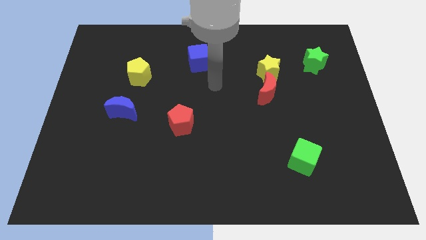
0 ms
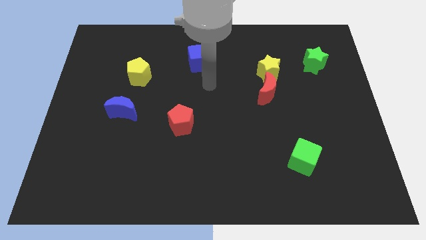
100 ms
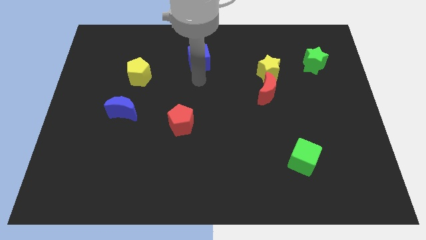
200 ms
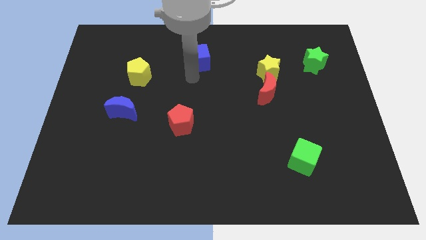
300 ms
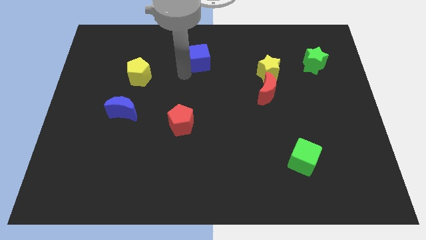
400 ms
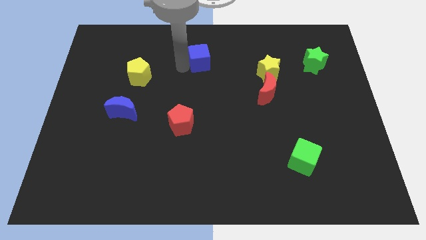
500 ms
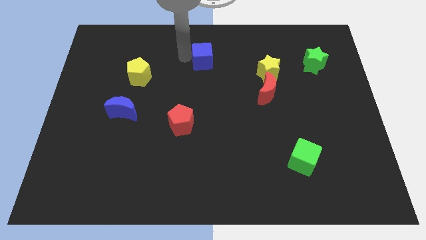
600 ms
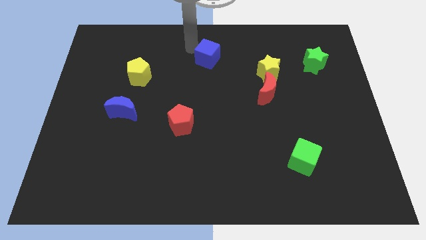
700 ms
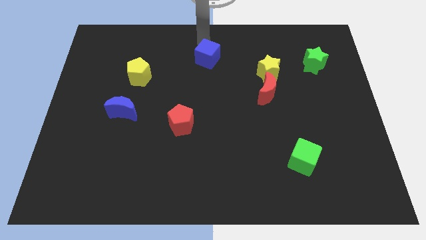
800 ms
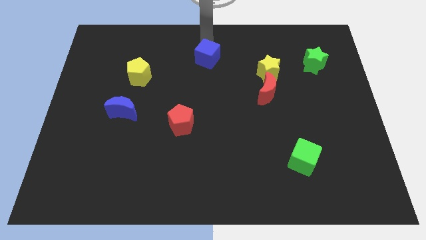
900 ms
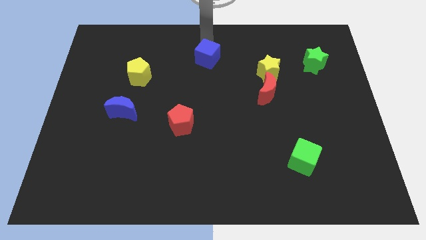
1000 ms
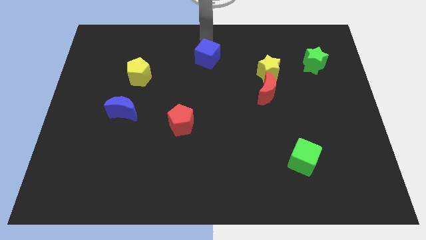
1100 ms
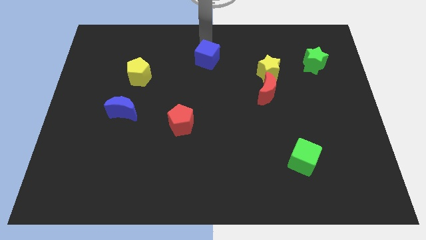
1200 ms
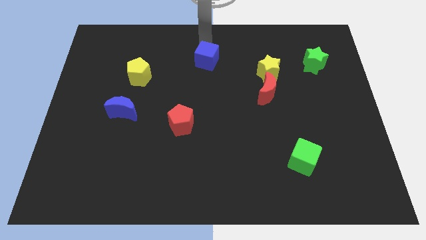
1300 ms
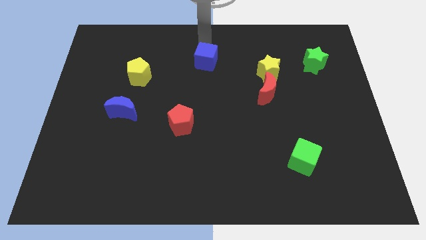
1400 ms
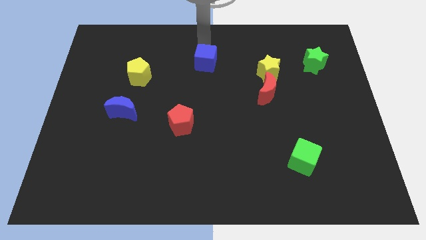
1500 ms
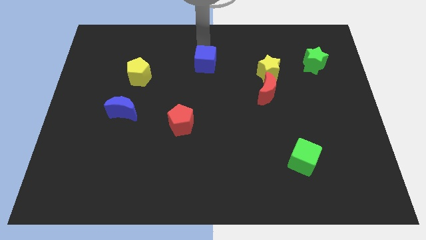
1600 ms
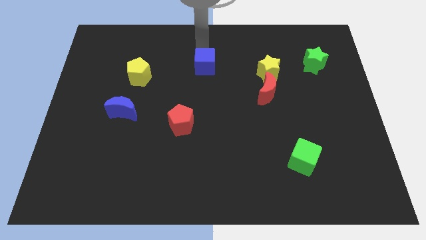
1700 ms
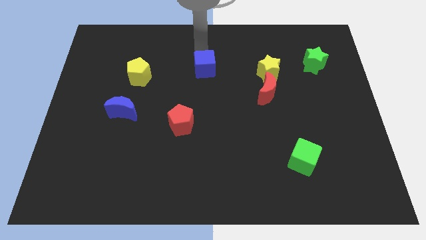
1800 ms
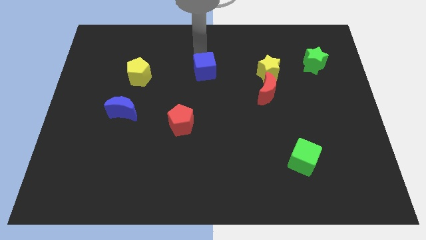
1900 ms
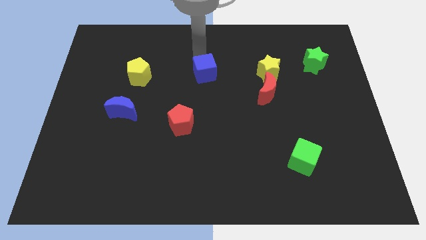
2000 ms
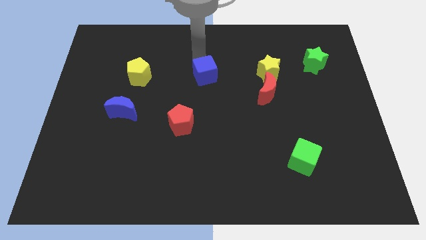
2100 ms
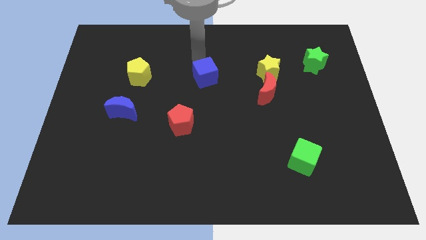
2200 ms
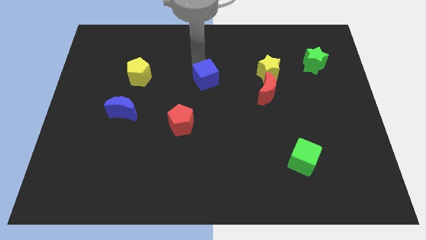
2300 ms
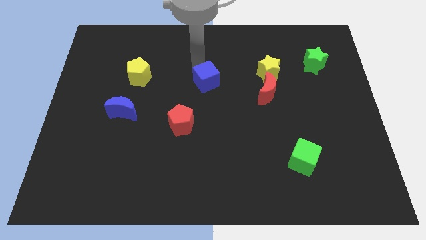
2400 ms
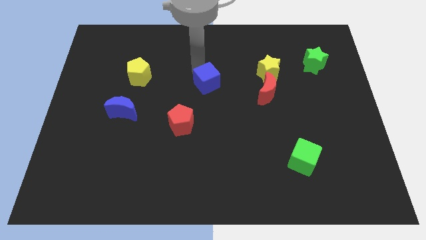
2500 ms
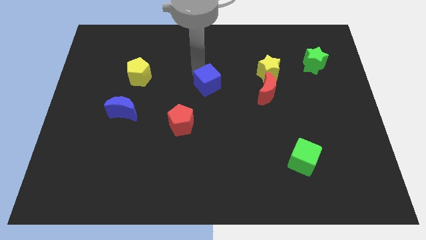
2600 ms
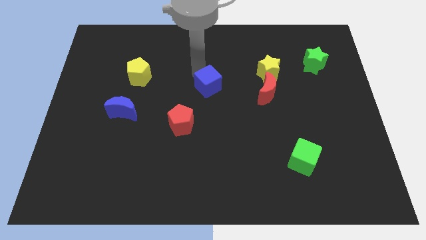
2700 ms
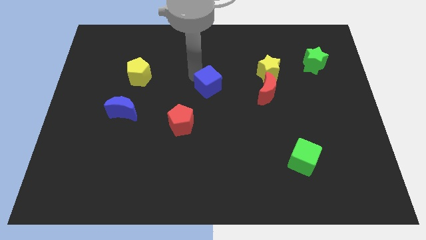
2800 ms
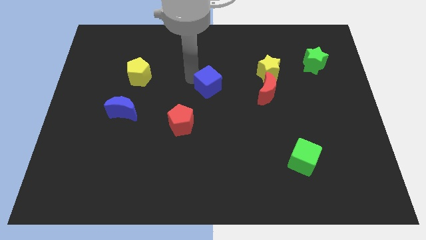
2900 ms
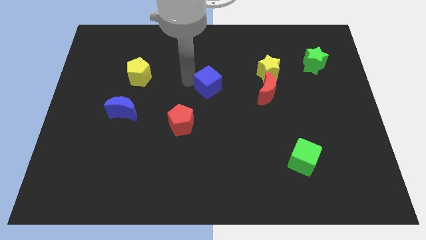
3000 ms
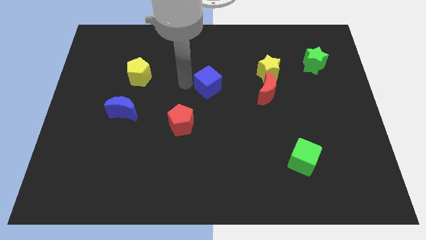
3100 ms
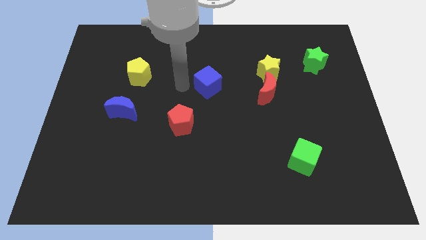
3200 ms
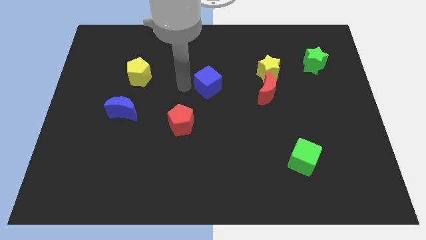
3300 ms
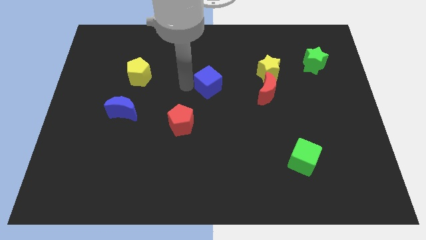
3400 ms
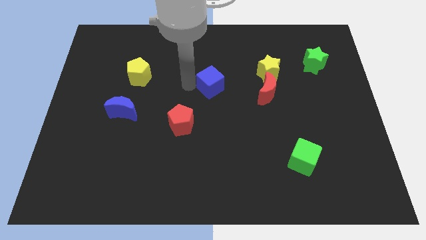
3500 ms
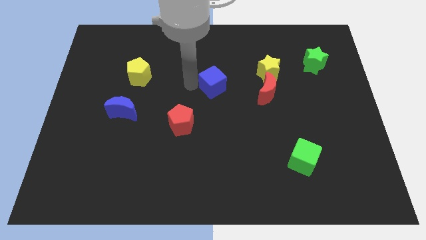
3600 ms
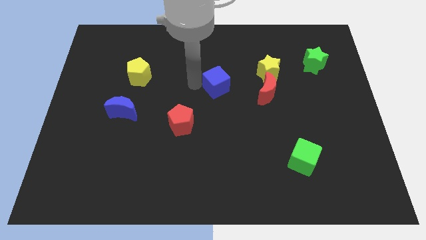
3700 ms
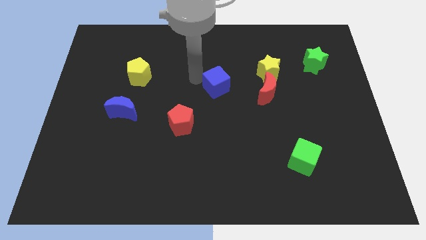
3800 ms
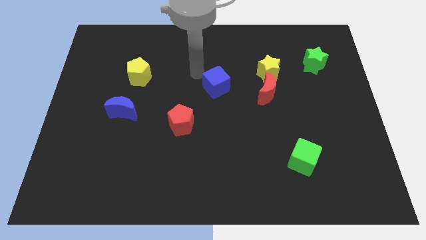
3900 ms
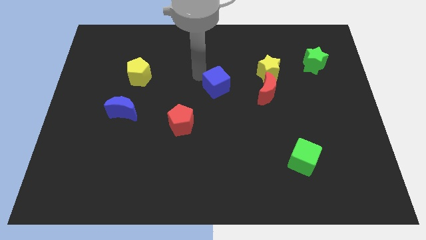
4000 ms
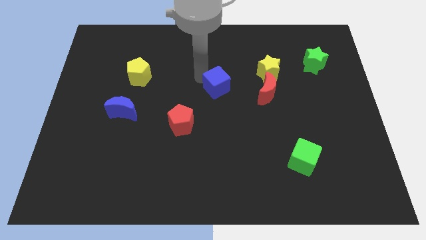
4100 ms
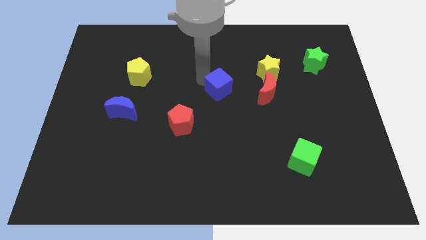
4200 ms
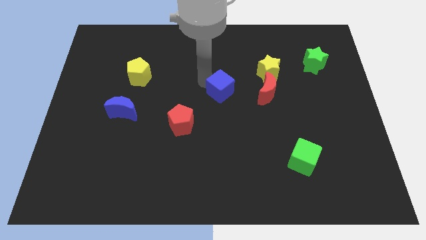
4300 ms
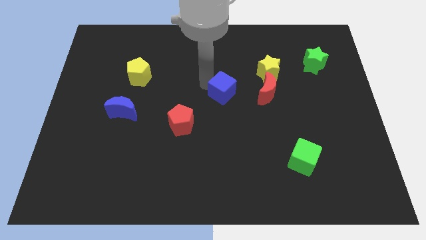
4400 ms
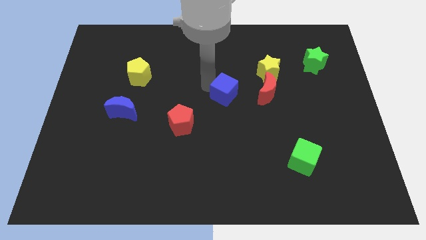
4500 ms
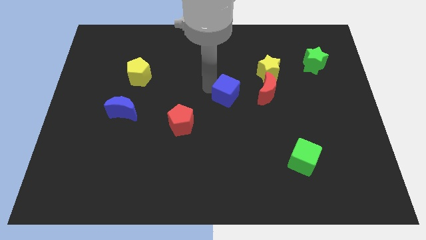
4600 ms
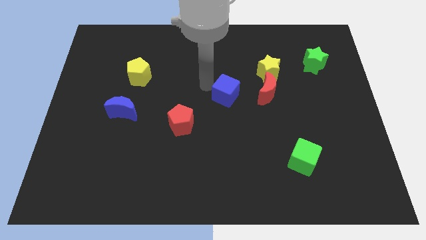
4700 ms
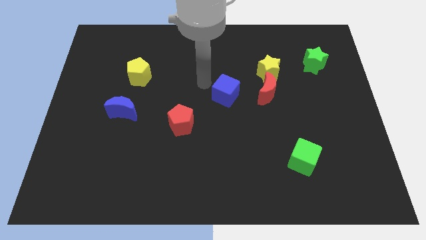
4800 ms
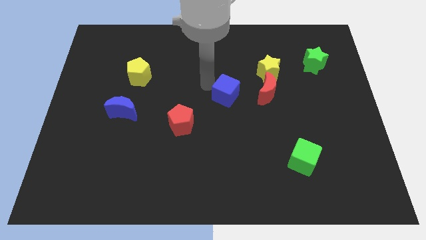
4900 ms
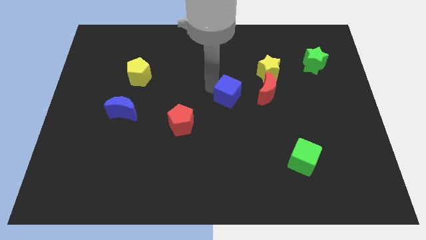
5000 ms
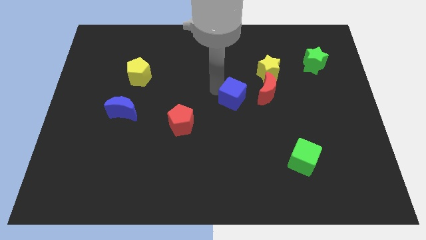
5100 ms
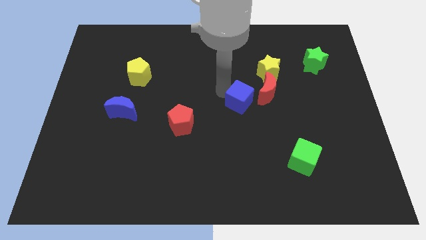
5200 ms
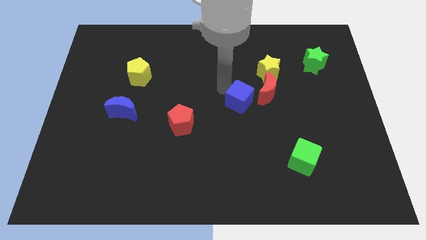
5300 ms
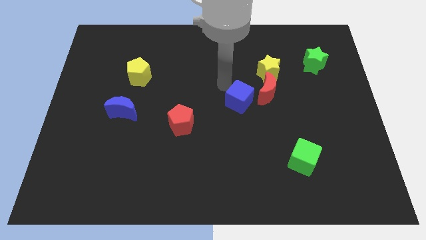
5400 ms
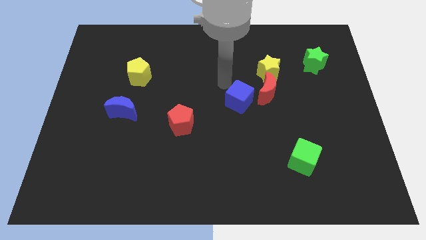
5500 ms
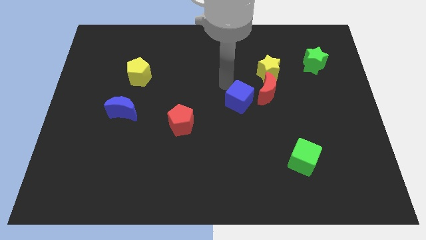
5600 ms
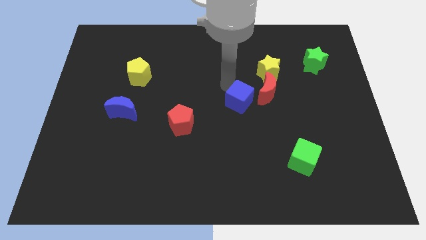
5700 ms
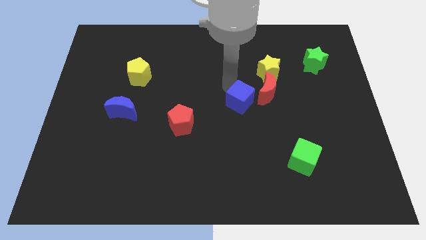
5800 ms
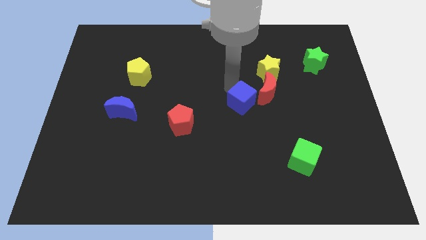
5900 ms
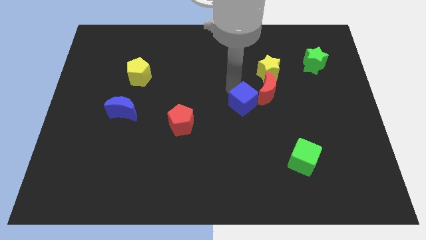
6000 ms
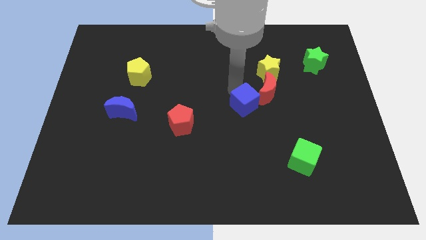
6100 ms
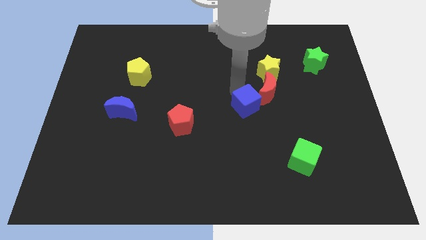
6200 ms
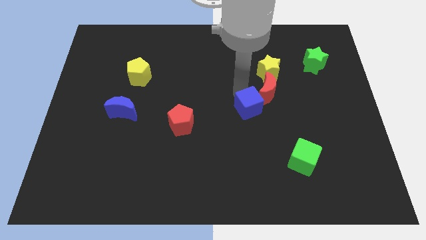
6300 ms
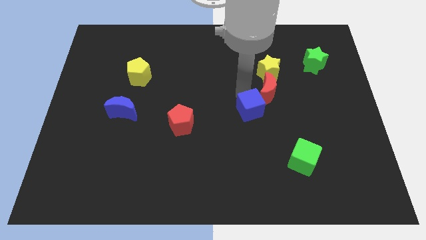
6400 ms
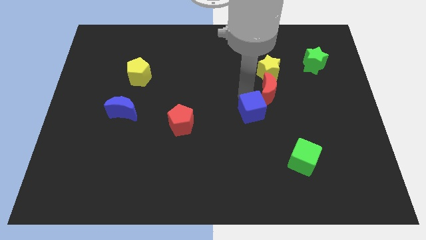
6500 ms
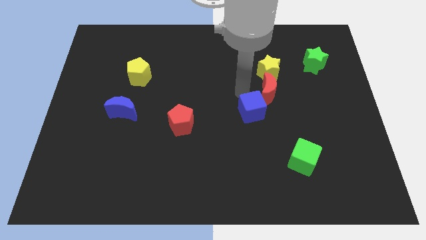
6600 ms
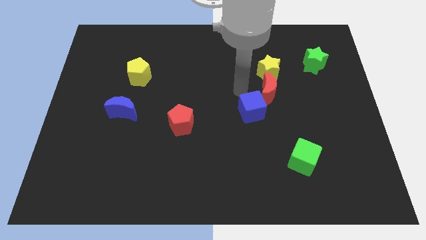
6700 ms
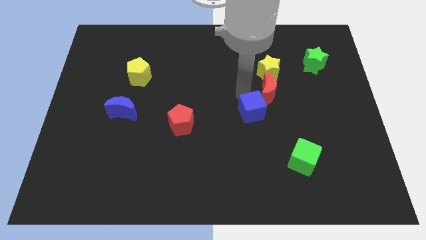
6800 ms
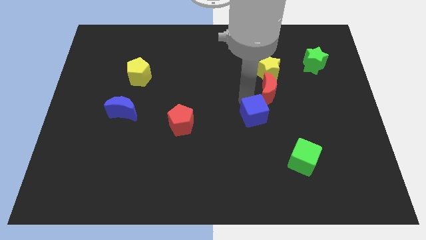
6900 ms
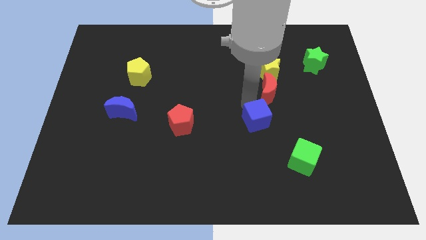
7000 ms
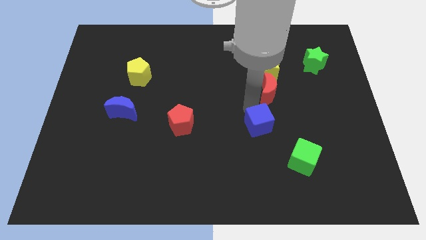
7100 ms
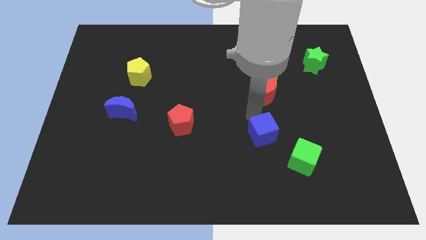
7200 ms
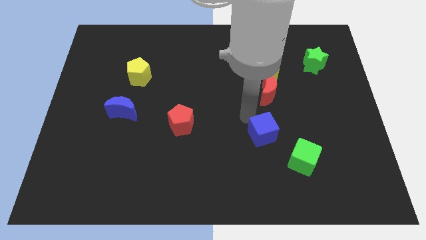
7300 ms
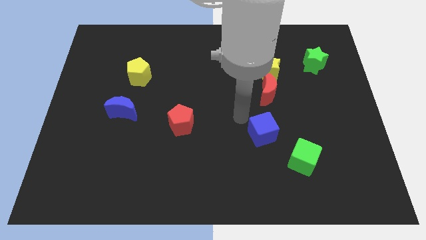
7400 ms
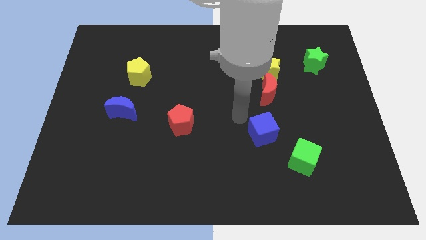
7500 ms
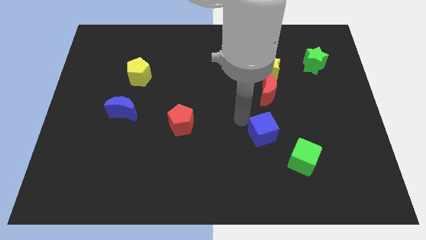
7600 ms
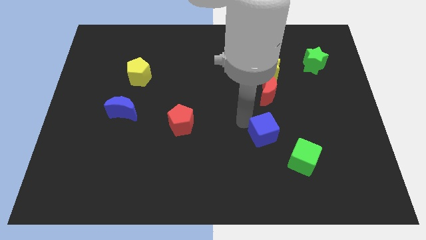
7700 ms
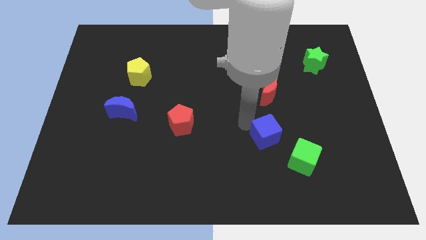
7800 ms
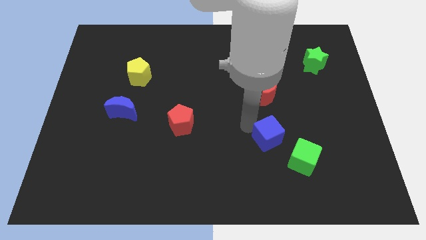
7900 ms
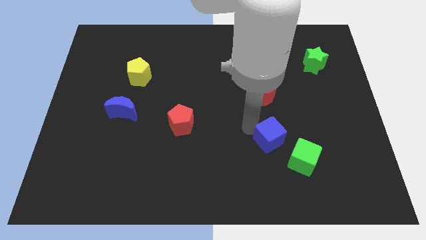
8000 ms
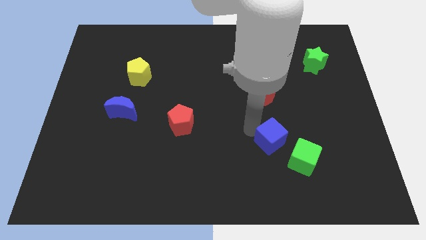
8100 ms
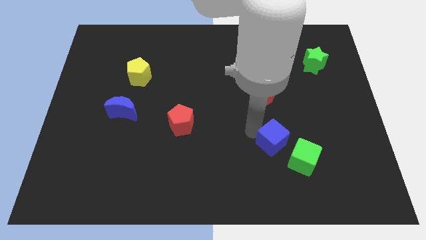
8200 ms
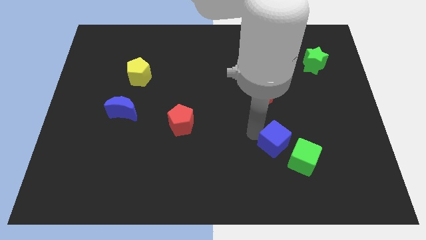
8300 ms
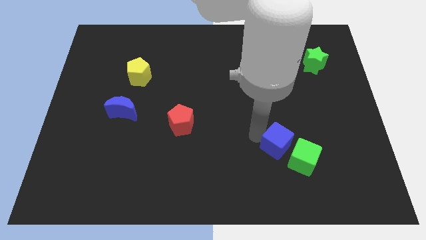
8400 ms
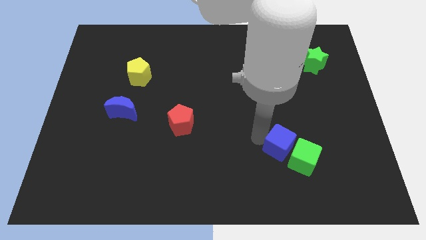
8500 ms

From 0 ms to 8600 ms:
put the blue cube next to the green cube
